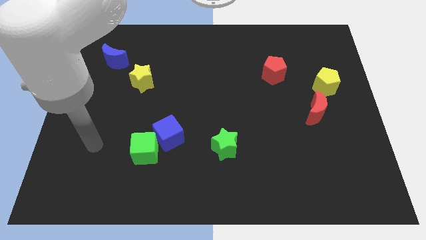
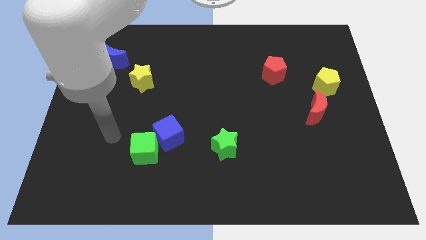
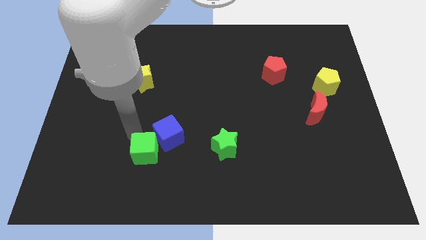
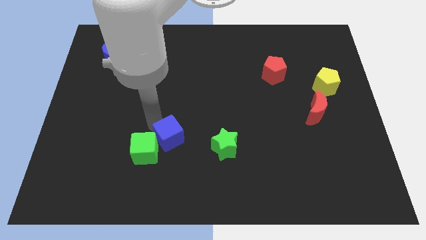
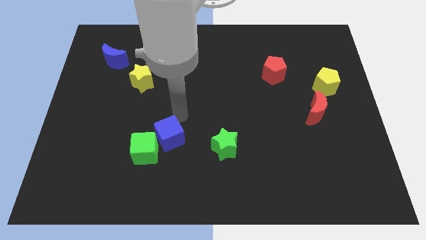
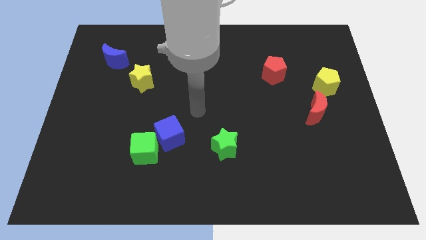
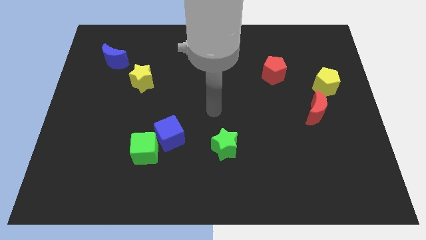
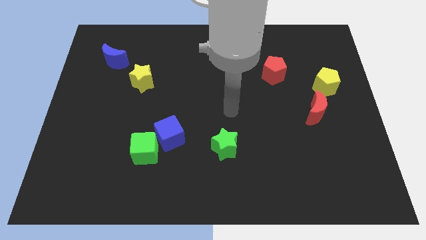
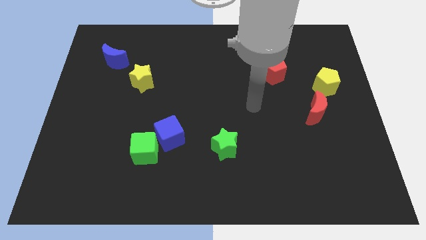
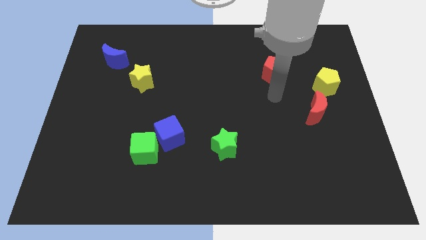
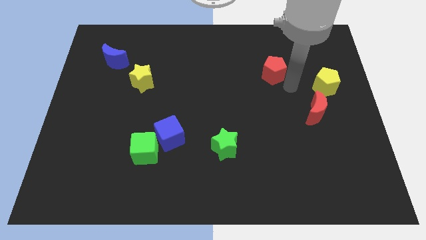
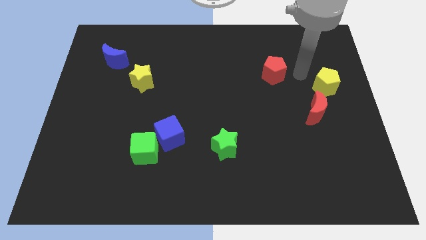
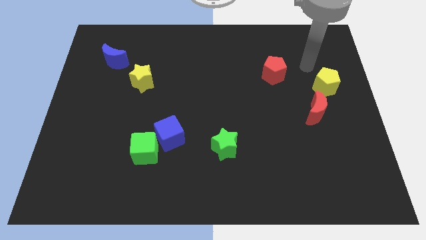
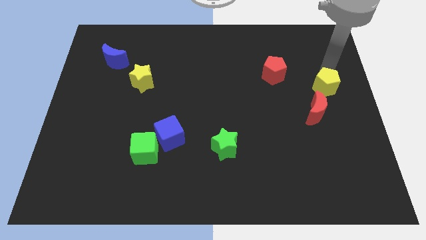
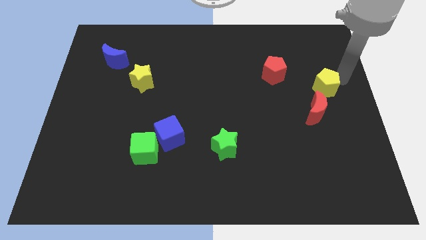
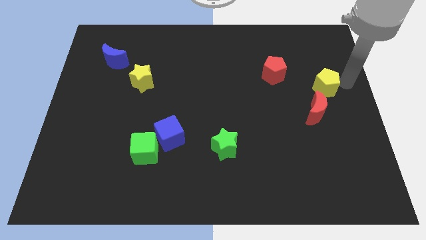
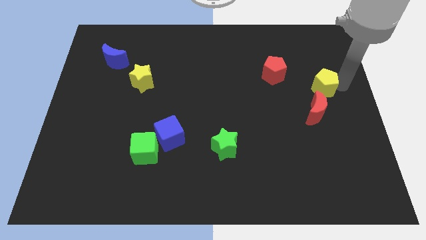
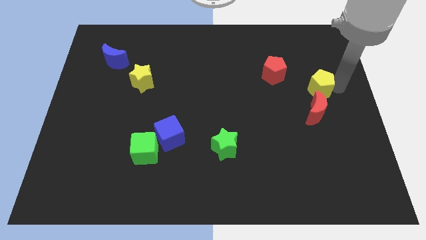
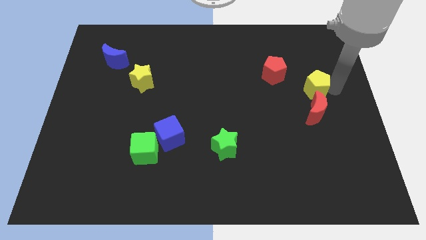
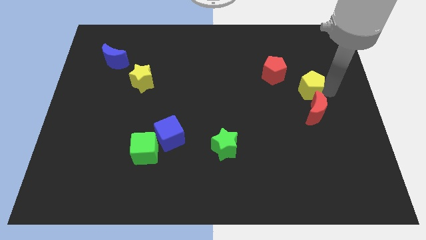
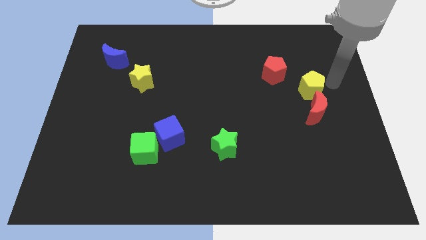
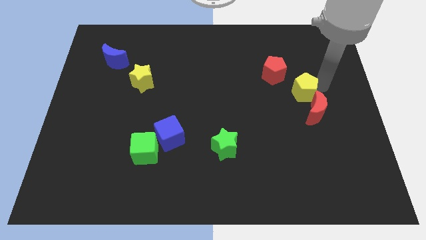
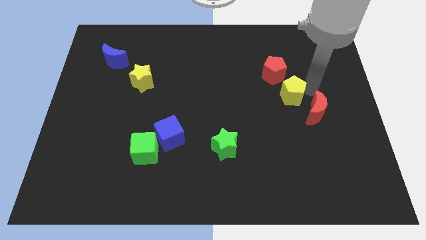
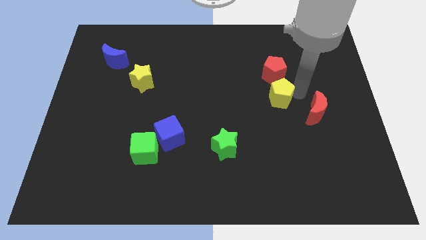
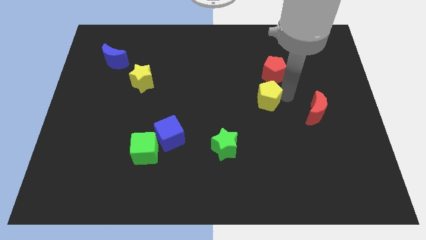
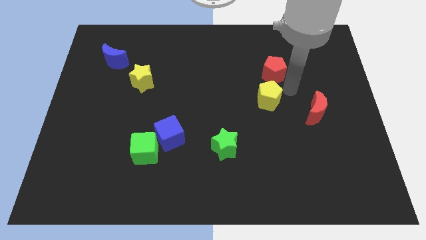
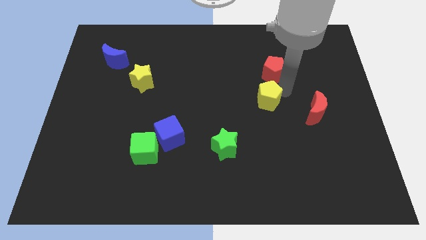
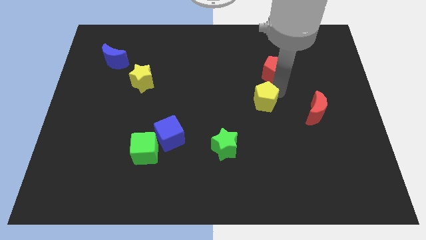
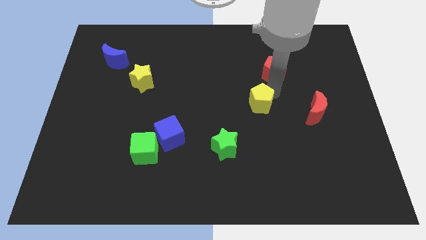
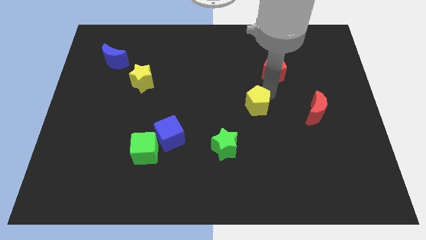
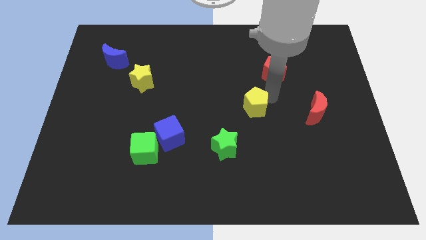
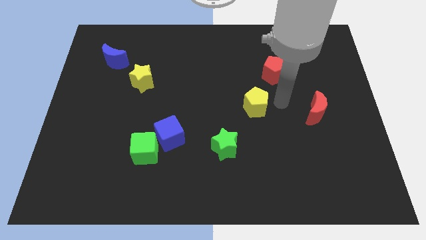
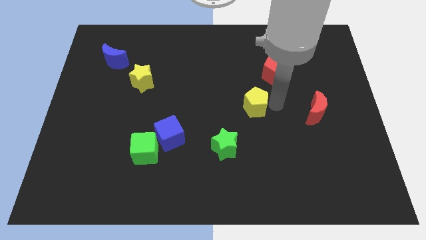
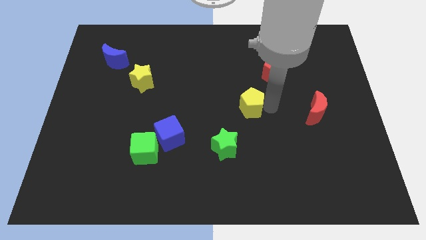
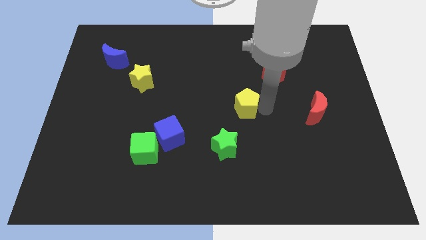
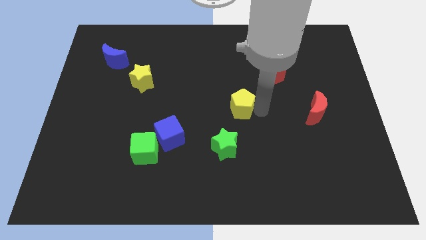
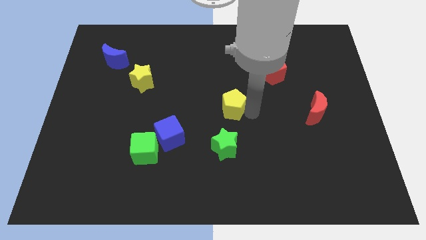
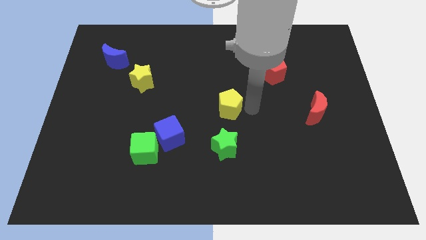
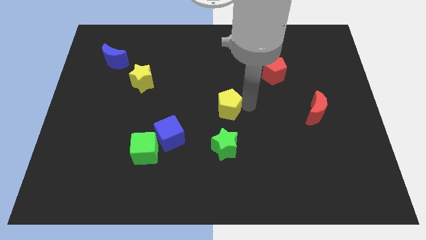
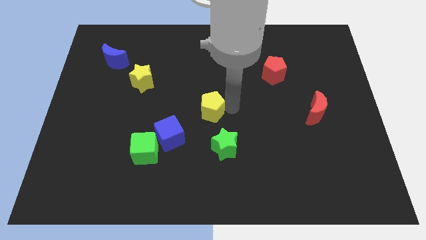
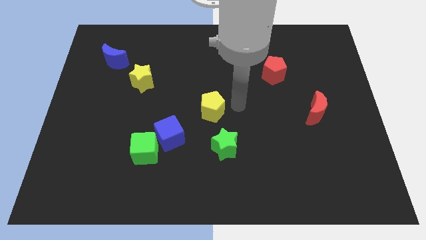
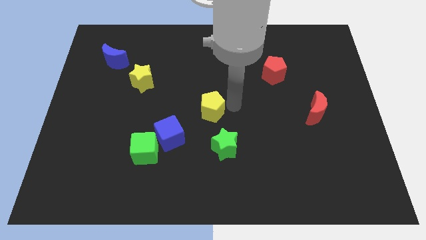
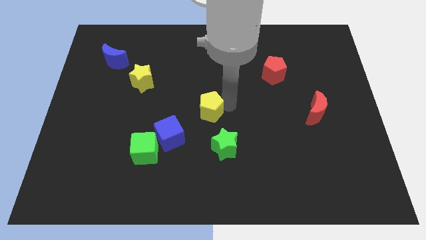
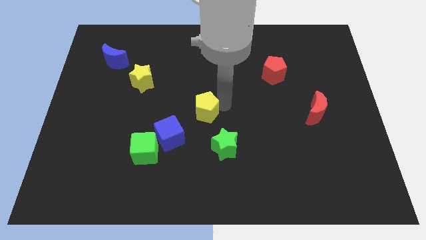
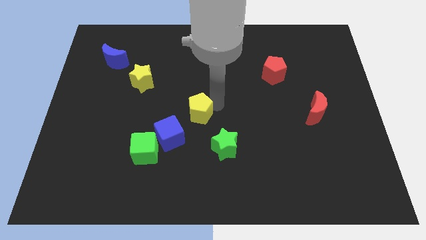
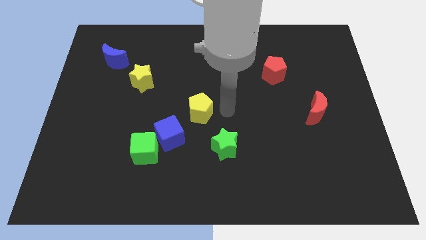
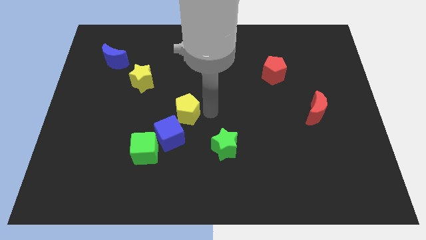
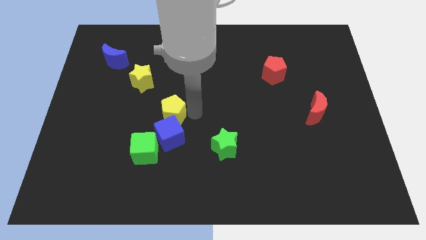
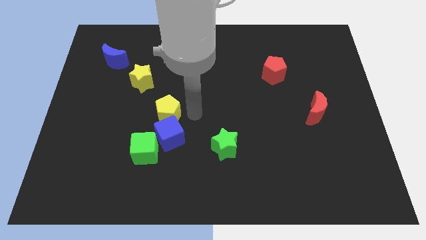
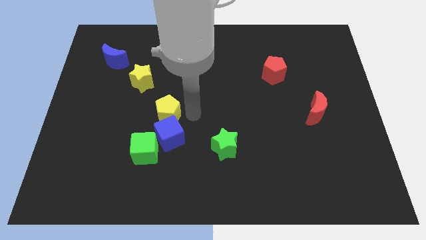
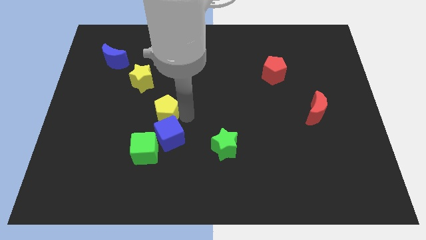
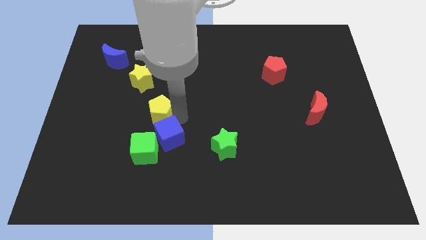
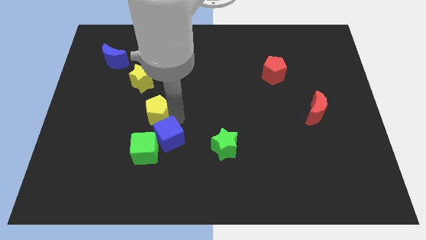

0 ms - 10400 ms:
move the yellow pentagon to the bottom side of the yellow star

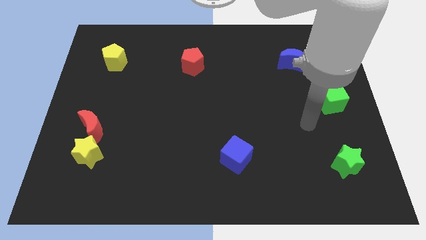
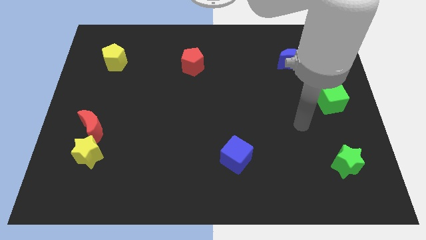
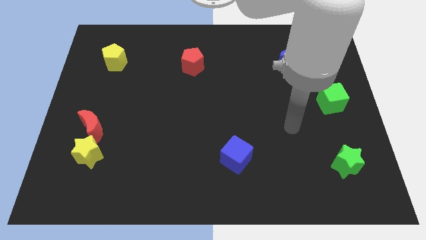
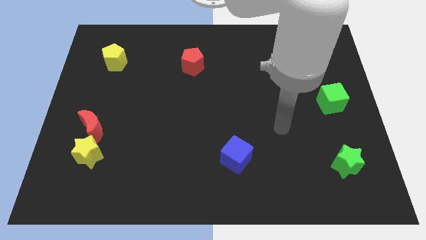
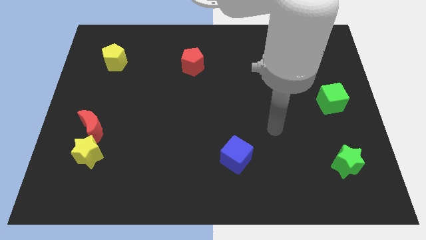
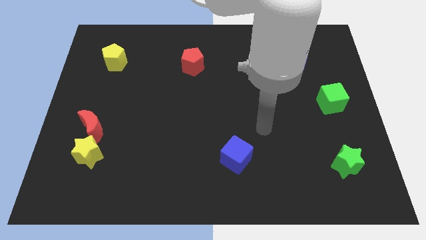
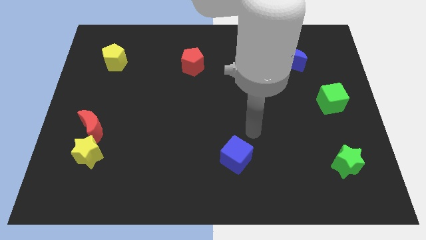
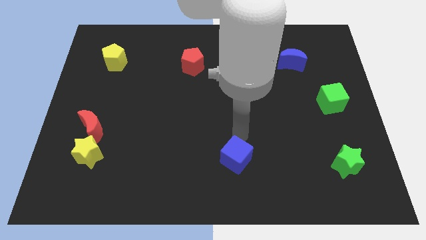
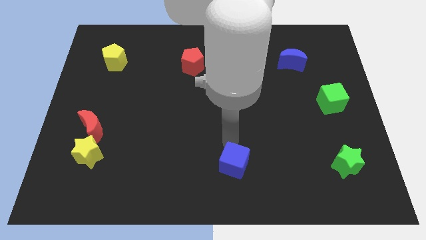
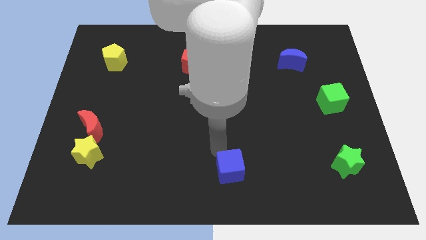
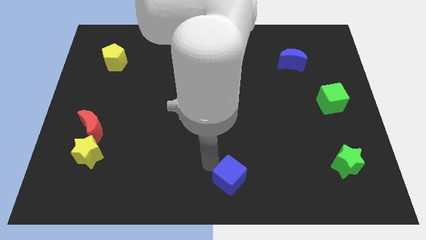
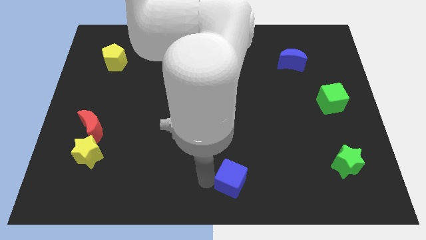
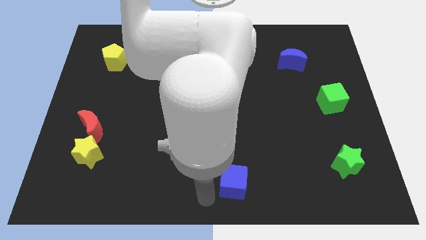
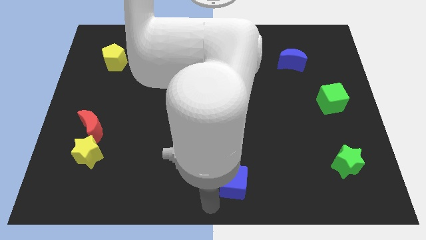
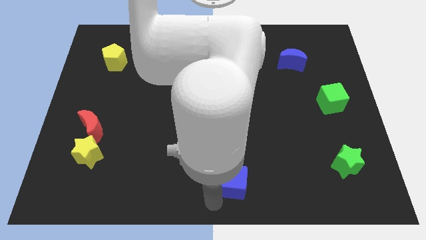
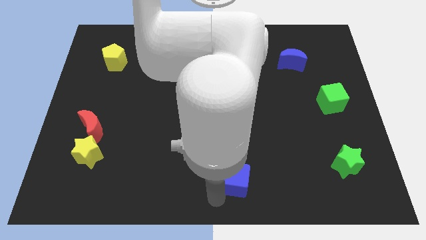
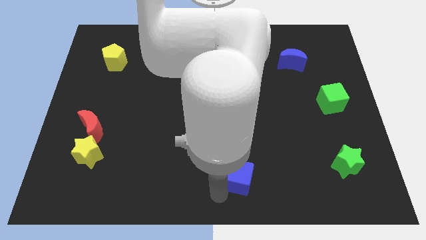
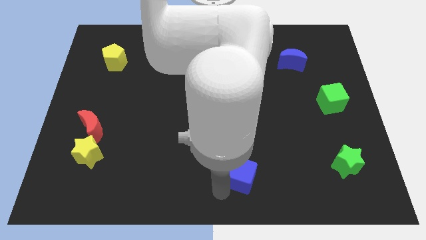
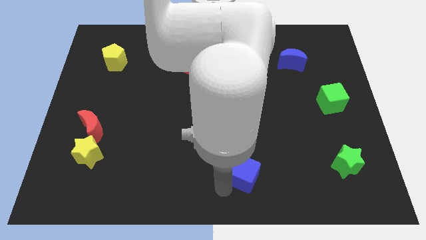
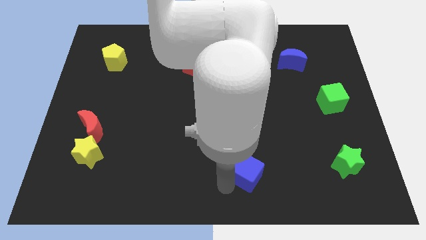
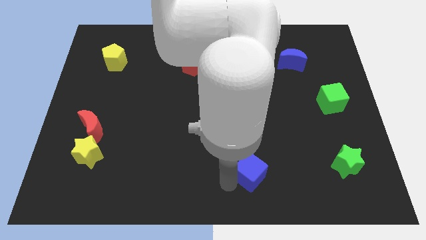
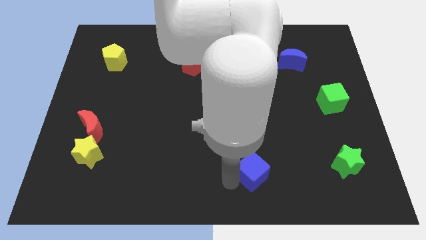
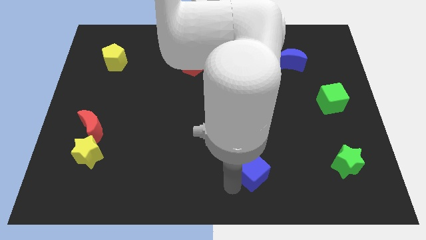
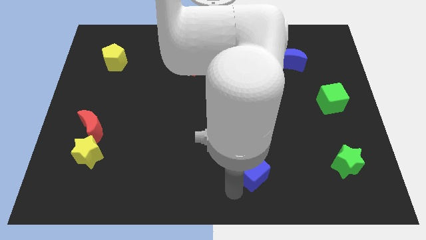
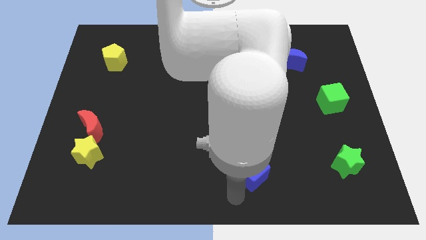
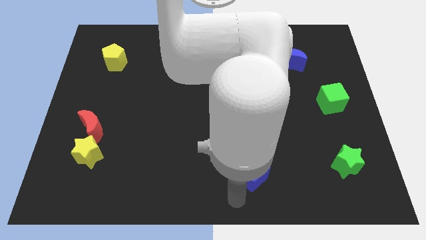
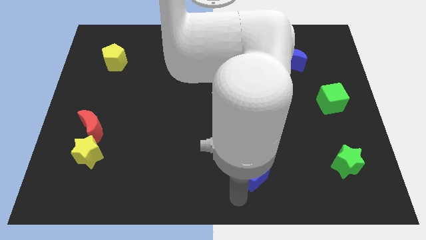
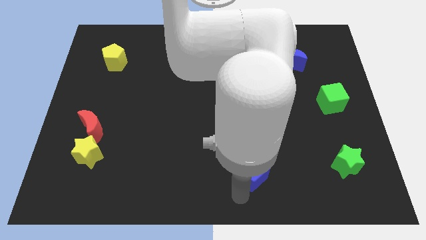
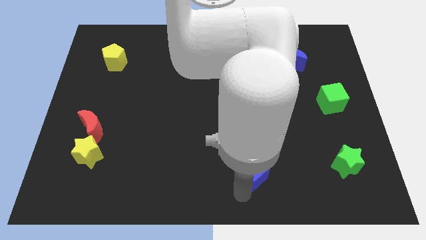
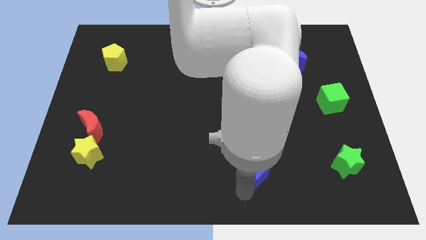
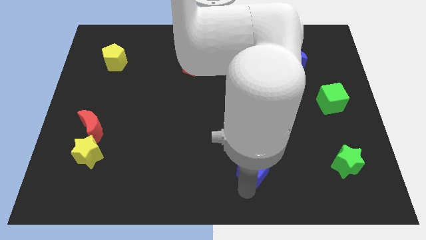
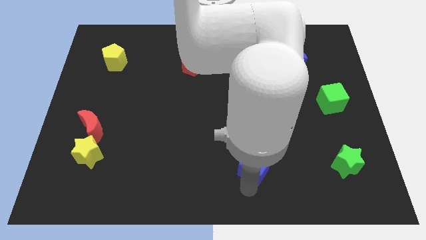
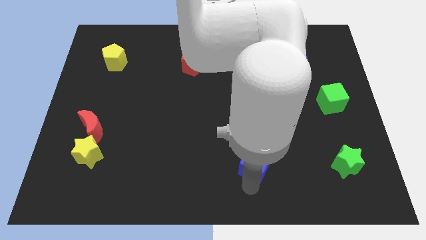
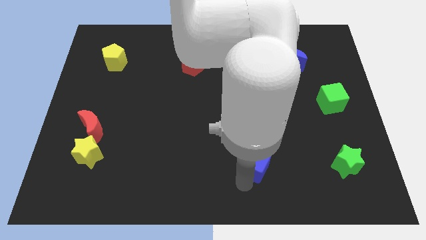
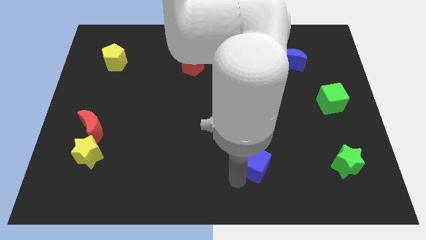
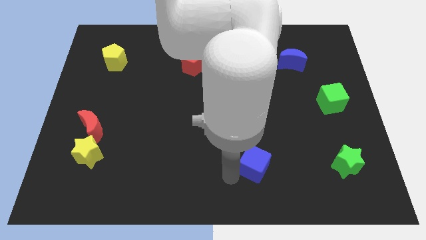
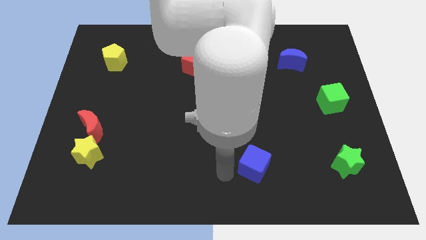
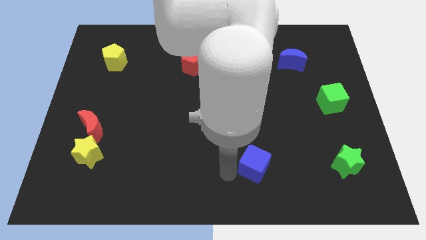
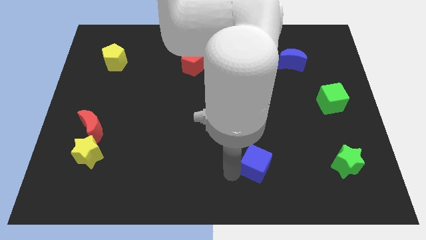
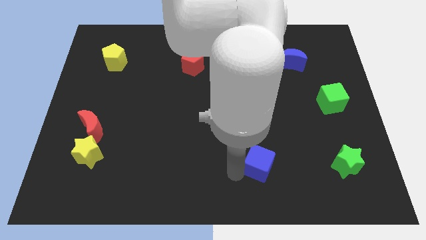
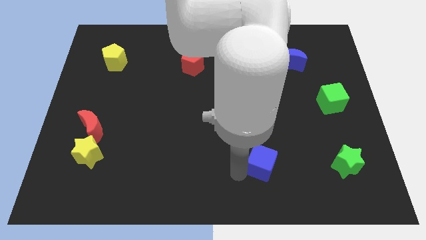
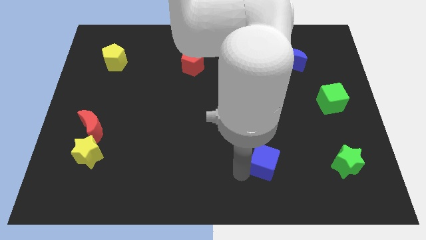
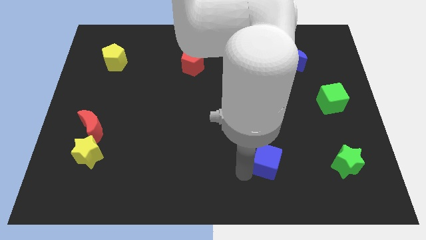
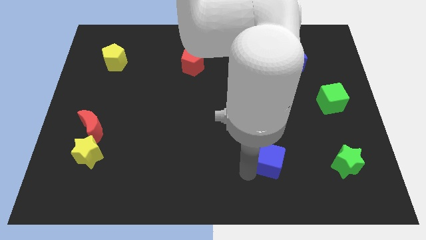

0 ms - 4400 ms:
push the blue cube to the left side of the green star
